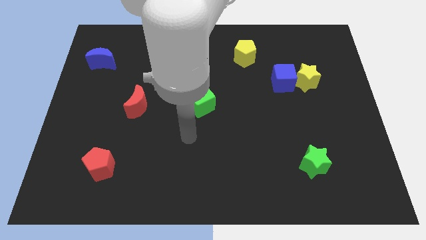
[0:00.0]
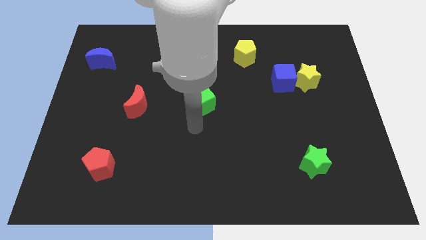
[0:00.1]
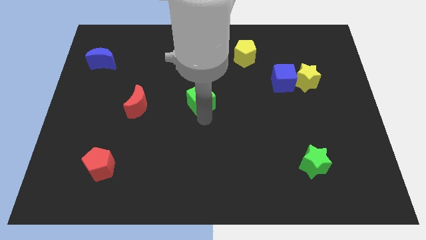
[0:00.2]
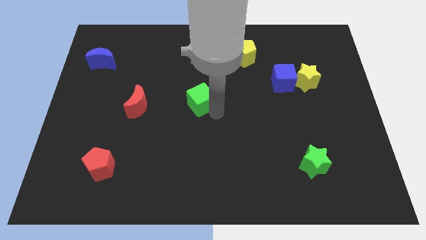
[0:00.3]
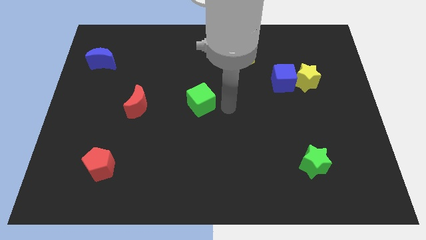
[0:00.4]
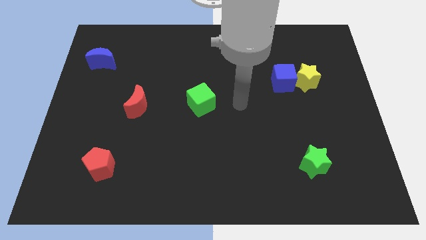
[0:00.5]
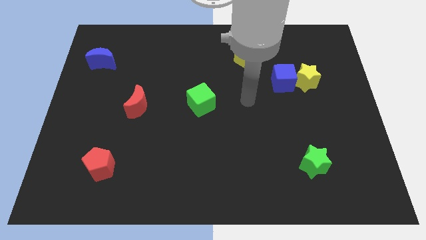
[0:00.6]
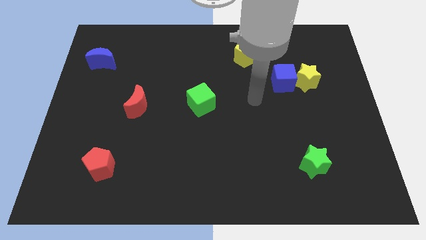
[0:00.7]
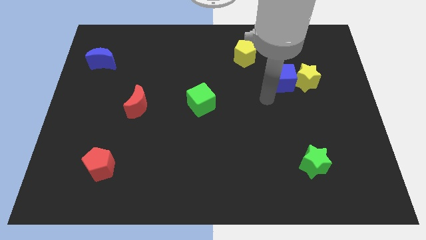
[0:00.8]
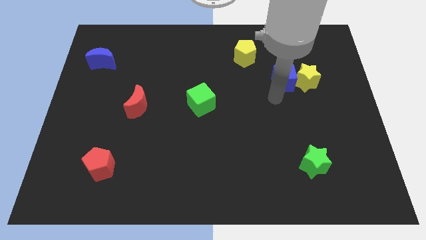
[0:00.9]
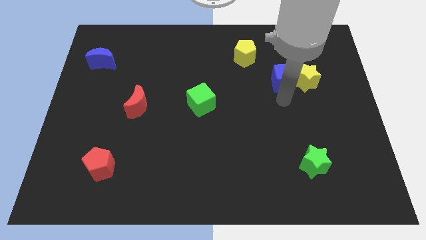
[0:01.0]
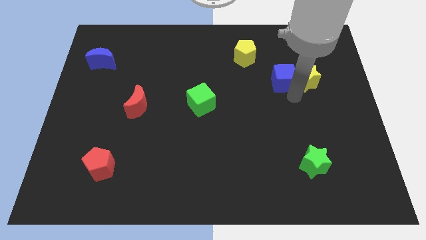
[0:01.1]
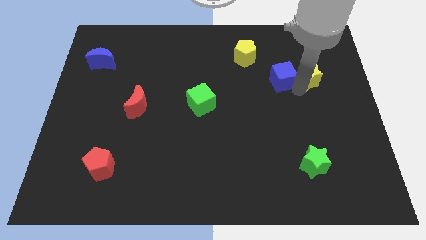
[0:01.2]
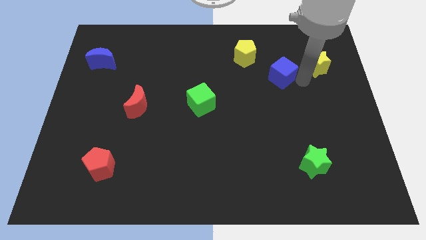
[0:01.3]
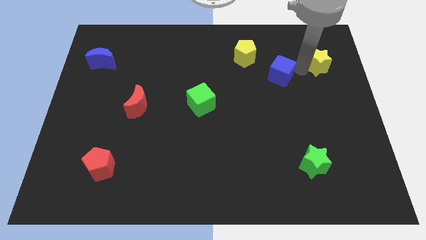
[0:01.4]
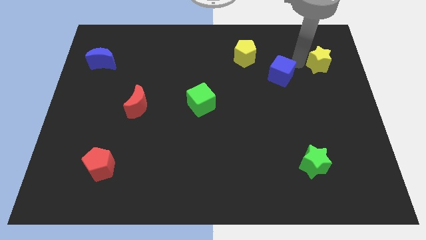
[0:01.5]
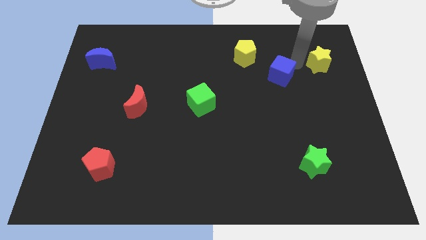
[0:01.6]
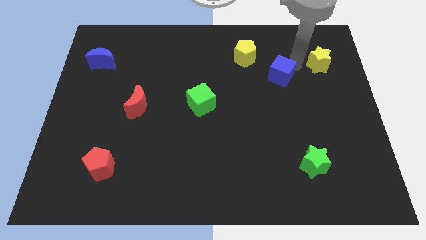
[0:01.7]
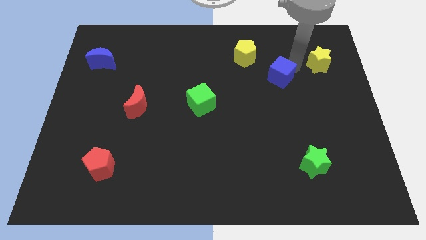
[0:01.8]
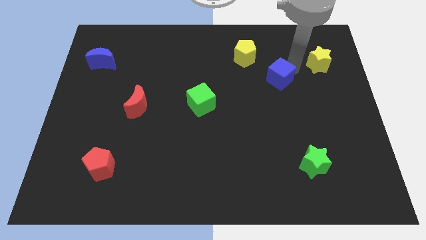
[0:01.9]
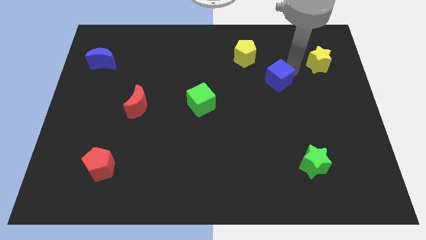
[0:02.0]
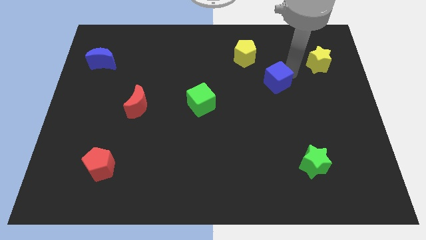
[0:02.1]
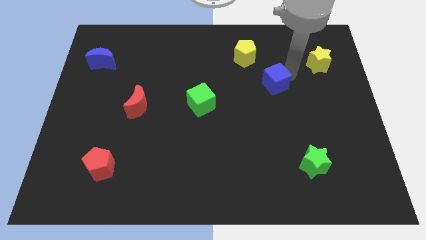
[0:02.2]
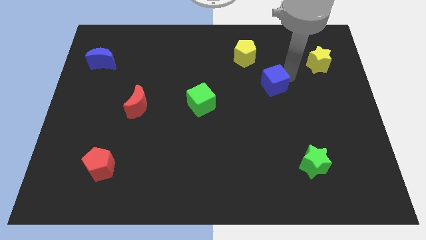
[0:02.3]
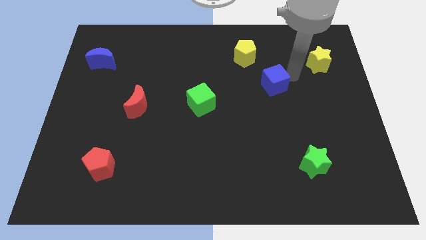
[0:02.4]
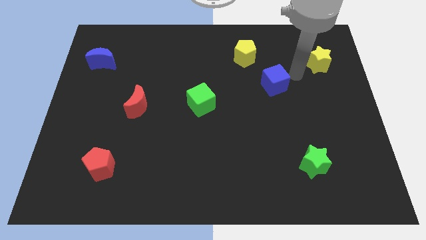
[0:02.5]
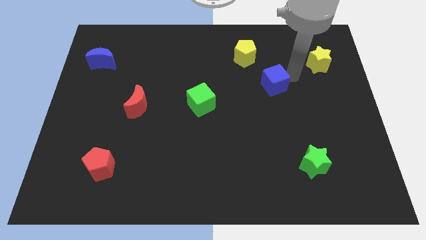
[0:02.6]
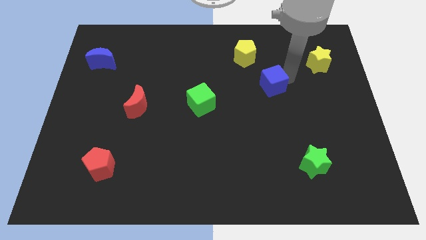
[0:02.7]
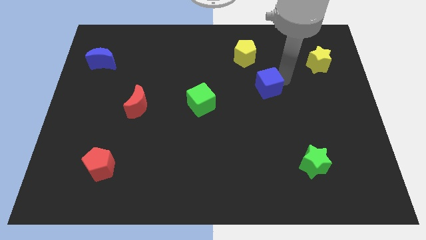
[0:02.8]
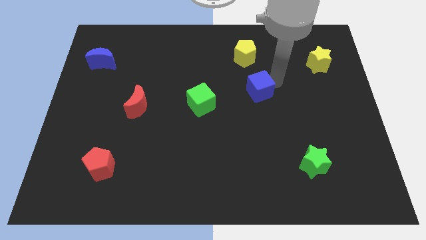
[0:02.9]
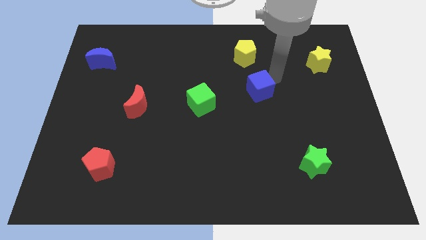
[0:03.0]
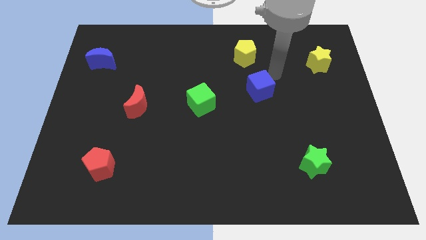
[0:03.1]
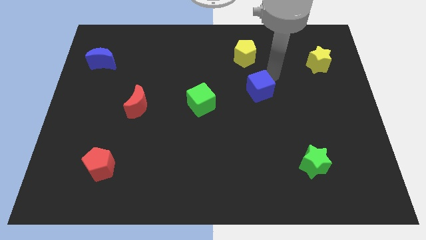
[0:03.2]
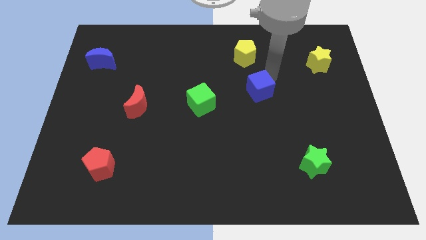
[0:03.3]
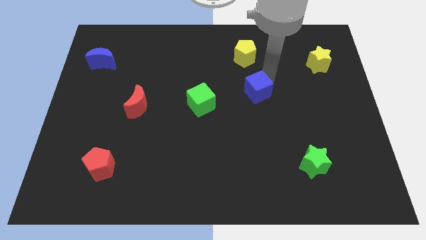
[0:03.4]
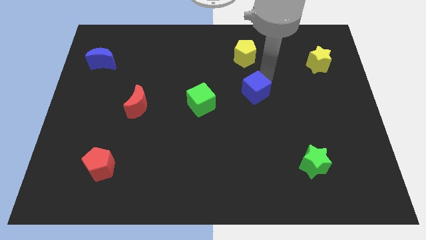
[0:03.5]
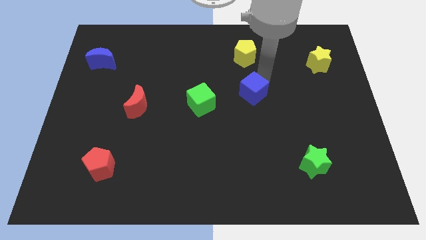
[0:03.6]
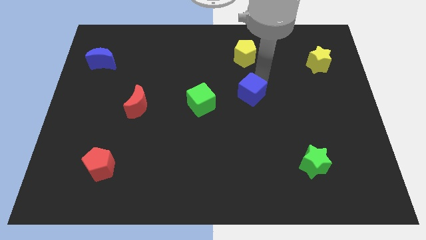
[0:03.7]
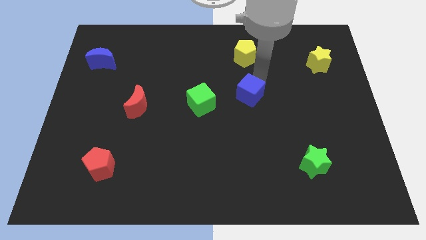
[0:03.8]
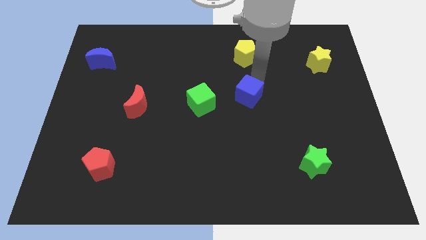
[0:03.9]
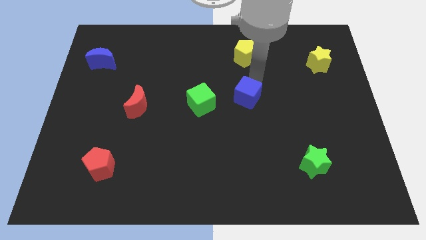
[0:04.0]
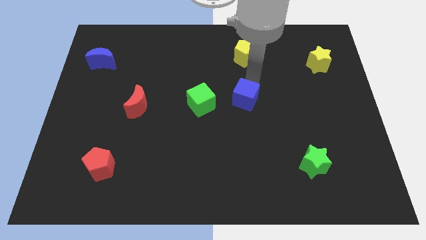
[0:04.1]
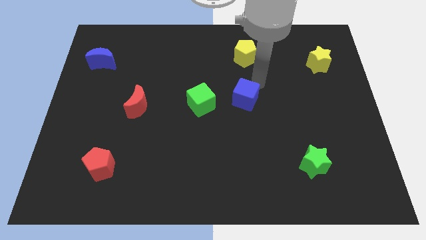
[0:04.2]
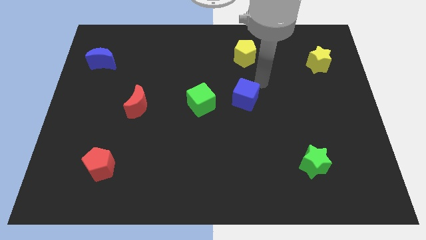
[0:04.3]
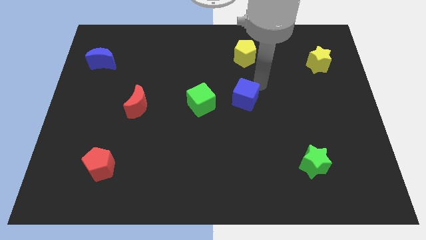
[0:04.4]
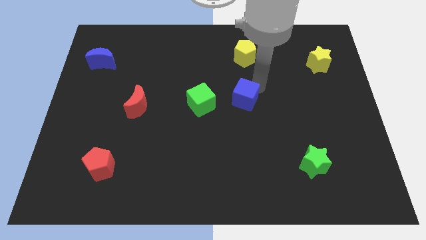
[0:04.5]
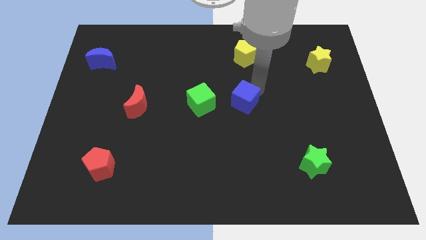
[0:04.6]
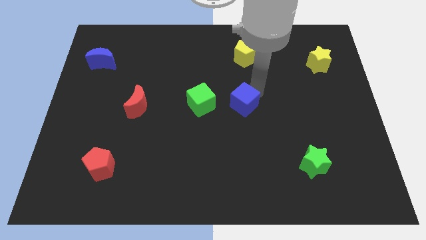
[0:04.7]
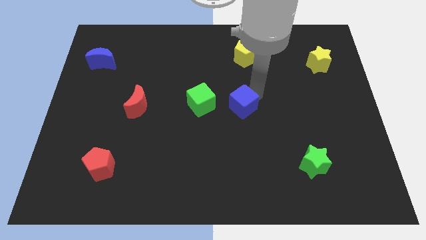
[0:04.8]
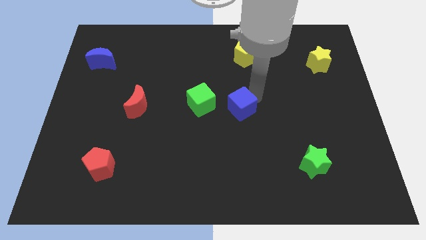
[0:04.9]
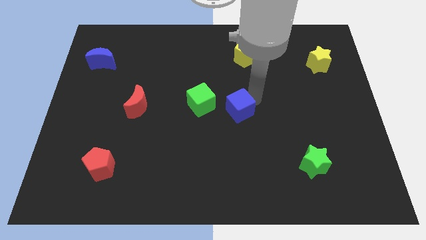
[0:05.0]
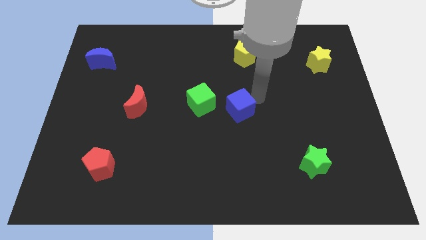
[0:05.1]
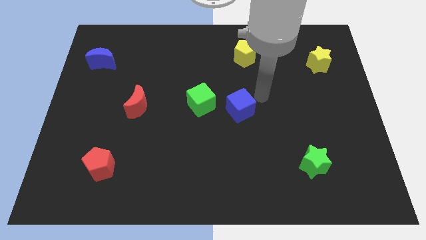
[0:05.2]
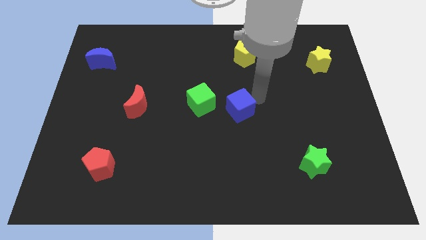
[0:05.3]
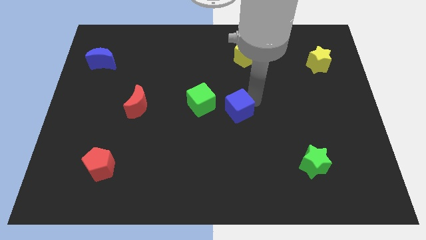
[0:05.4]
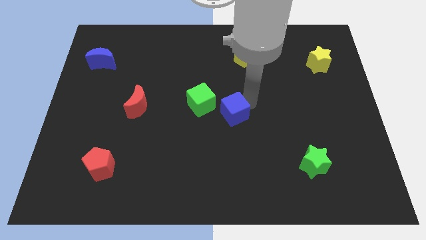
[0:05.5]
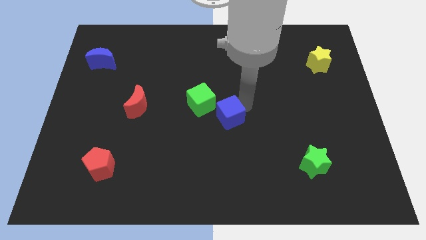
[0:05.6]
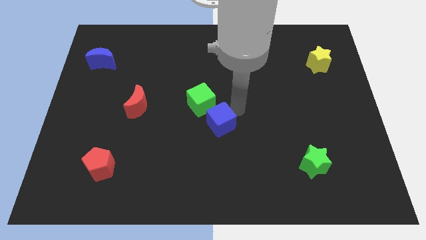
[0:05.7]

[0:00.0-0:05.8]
slide the blue cube diagonally downwards and left

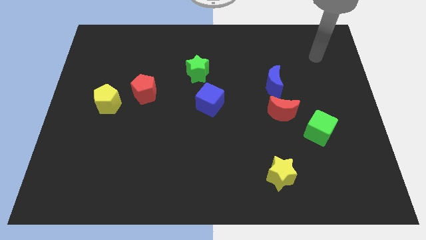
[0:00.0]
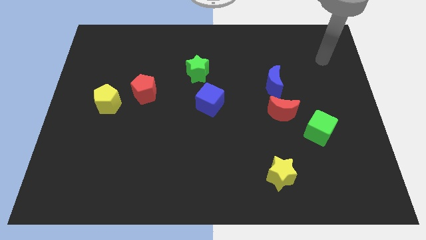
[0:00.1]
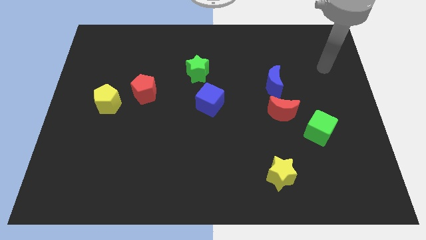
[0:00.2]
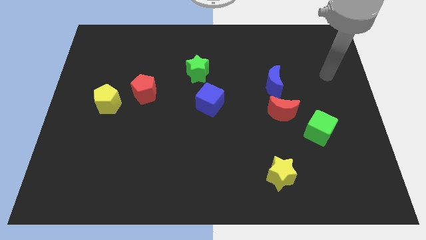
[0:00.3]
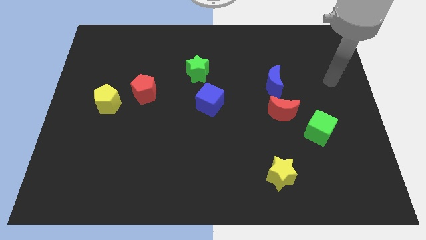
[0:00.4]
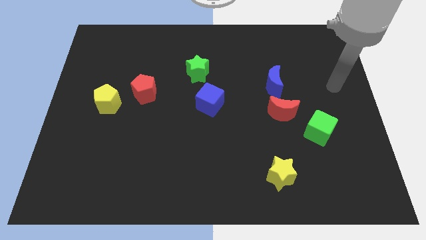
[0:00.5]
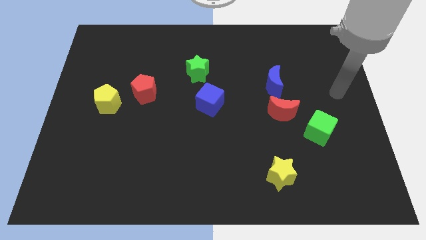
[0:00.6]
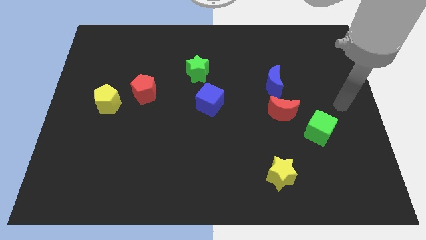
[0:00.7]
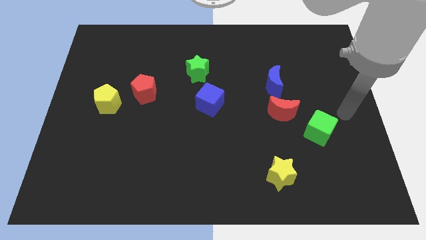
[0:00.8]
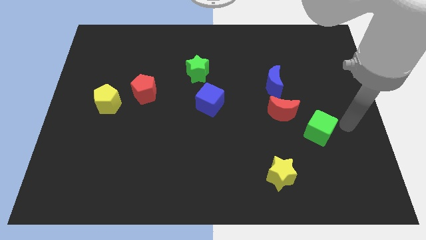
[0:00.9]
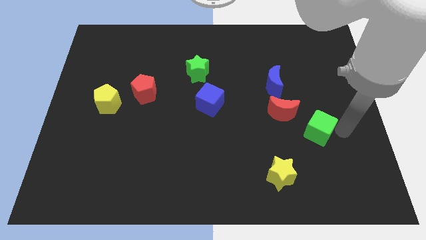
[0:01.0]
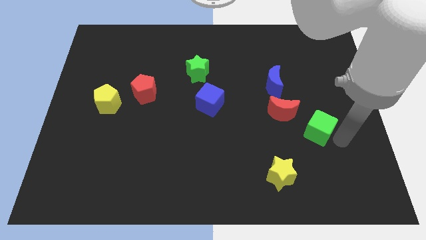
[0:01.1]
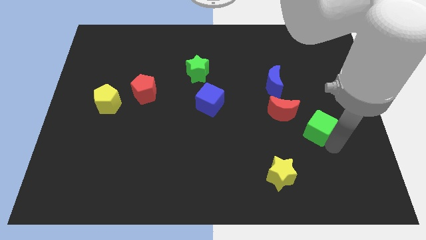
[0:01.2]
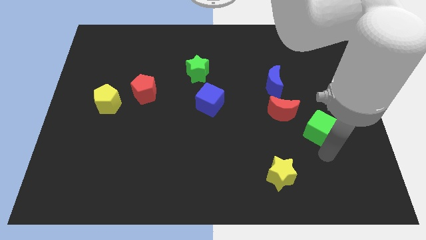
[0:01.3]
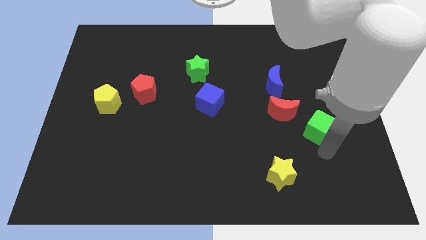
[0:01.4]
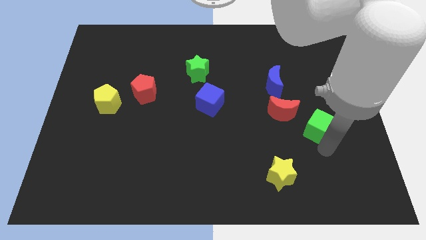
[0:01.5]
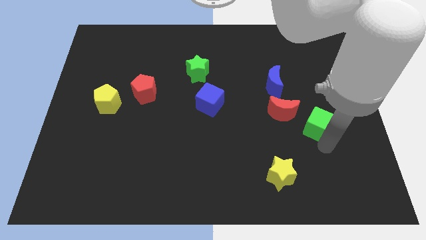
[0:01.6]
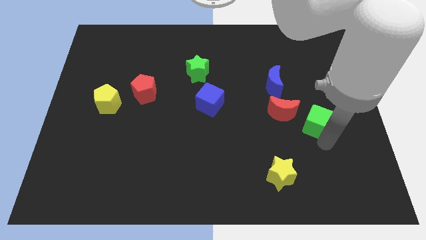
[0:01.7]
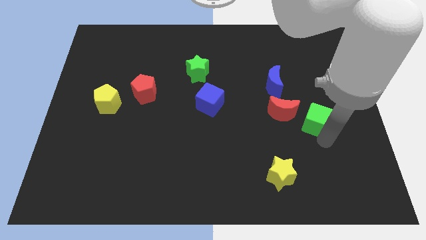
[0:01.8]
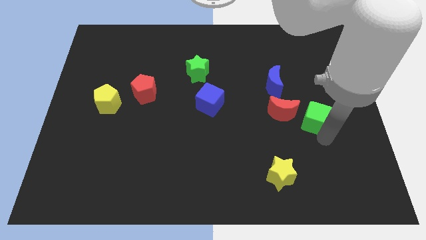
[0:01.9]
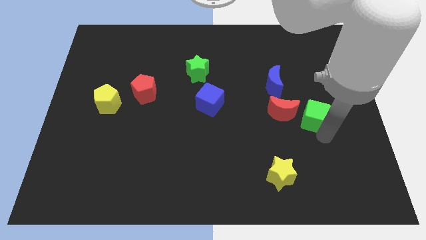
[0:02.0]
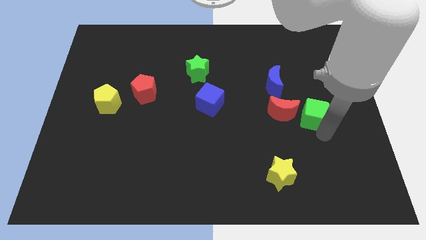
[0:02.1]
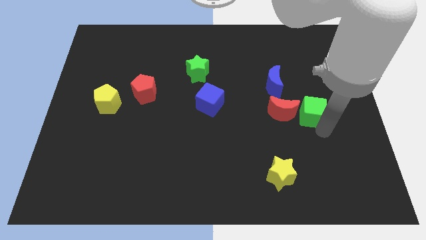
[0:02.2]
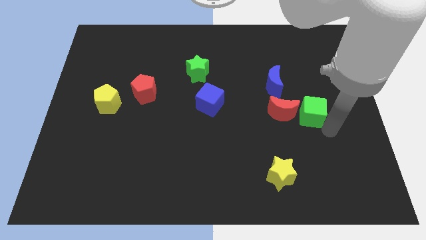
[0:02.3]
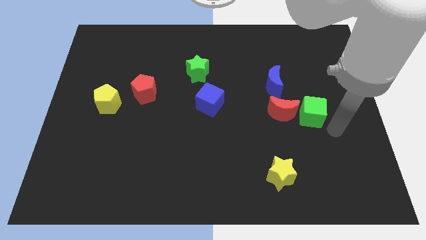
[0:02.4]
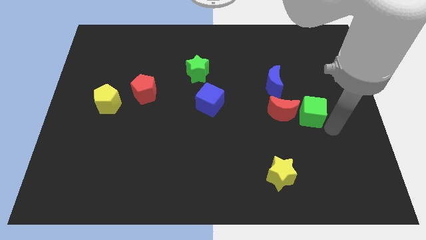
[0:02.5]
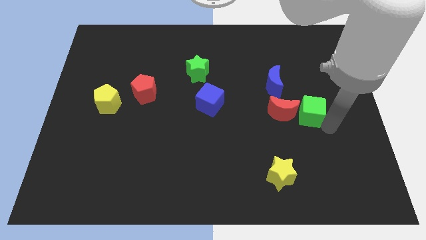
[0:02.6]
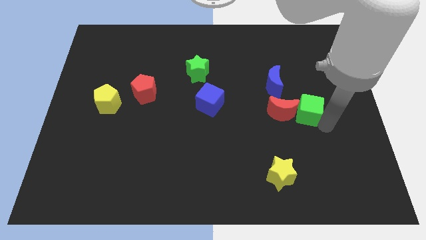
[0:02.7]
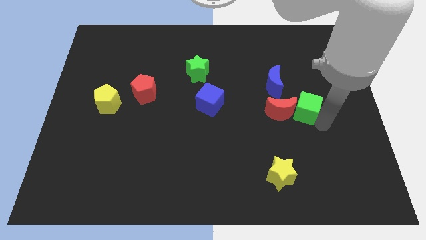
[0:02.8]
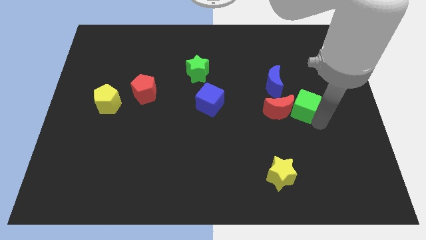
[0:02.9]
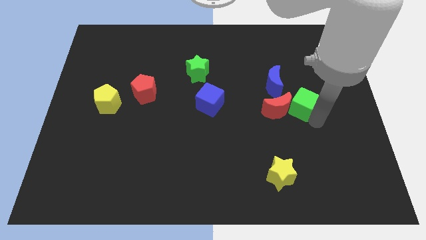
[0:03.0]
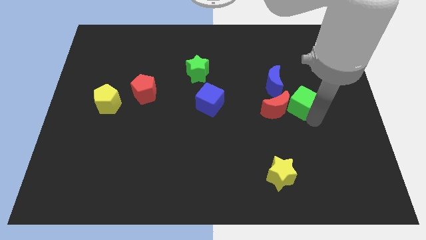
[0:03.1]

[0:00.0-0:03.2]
slightly move the green cube up and left
